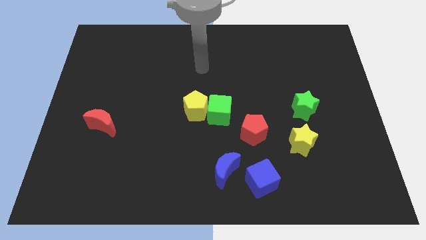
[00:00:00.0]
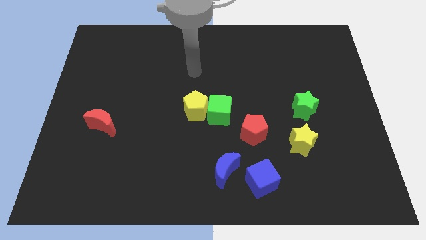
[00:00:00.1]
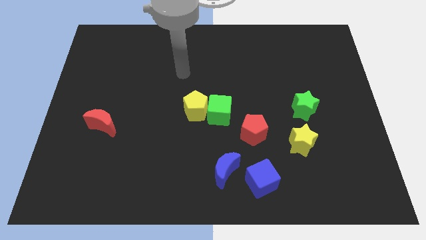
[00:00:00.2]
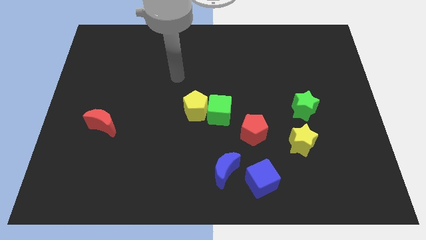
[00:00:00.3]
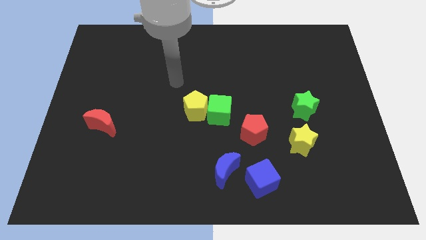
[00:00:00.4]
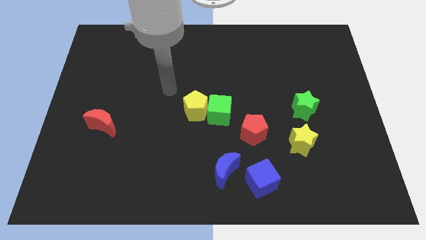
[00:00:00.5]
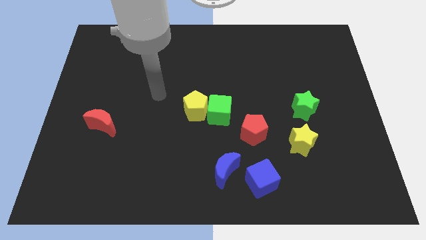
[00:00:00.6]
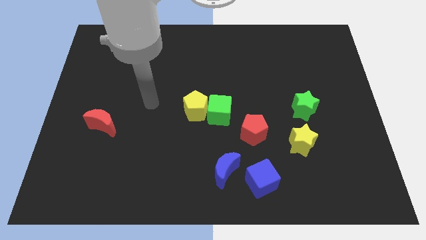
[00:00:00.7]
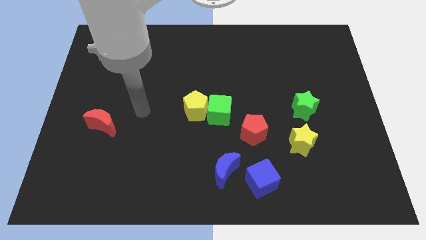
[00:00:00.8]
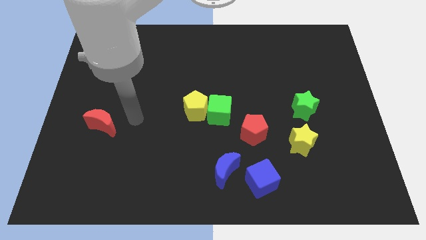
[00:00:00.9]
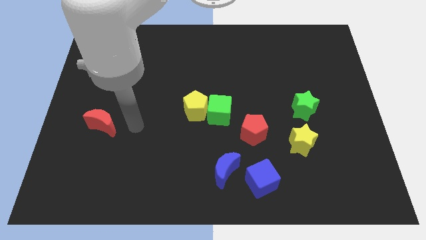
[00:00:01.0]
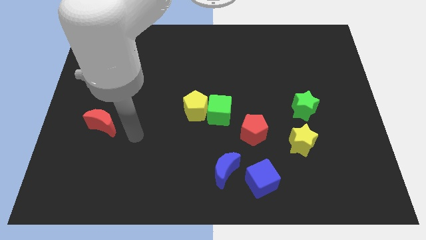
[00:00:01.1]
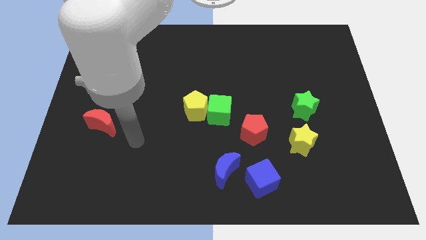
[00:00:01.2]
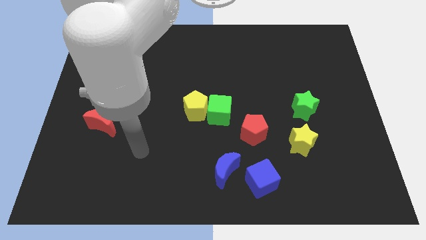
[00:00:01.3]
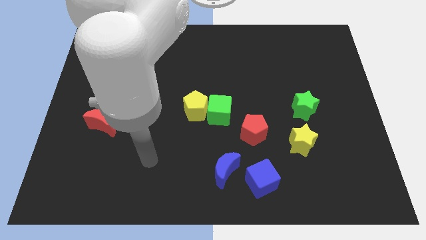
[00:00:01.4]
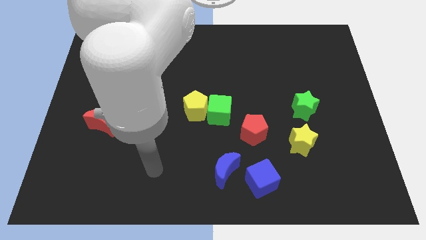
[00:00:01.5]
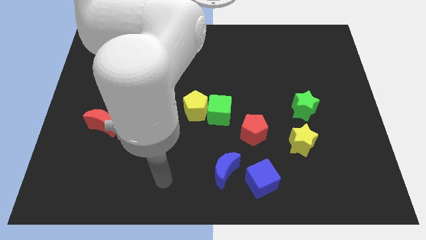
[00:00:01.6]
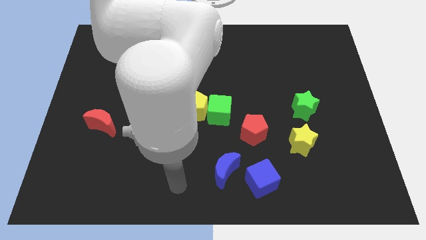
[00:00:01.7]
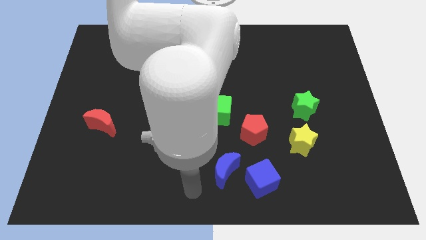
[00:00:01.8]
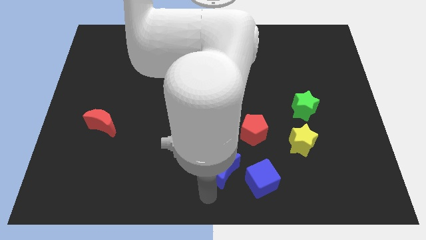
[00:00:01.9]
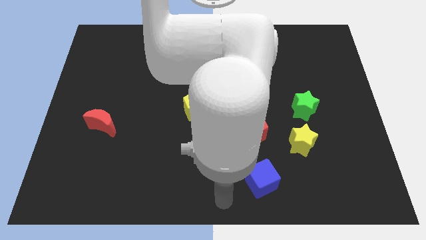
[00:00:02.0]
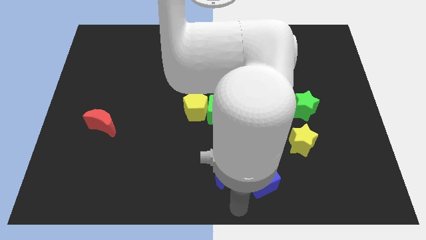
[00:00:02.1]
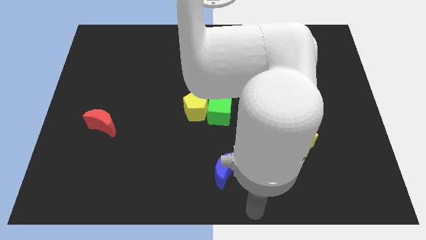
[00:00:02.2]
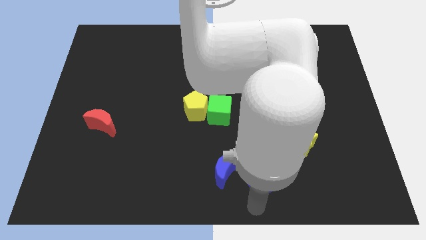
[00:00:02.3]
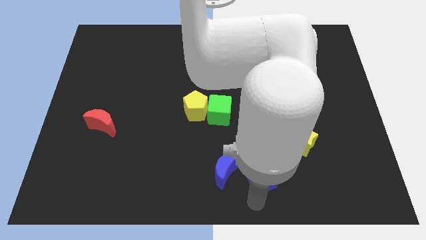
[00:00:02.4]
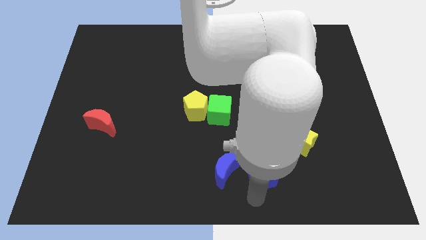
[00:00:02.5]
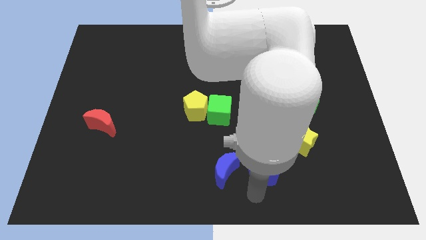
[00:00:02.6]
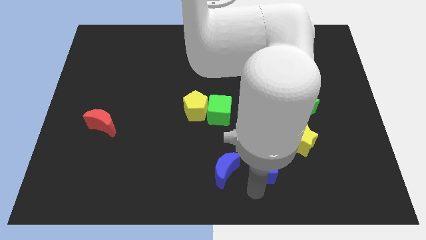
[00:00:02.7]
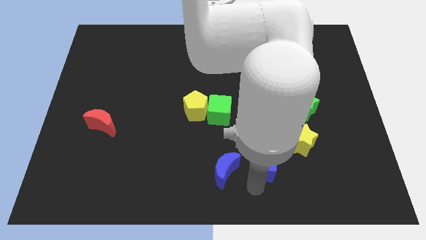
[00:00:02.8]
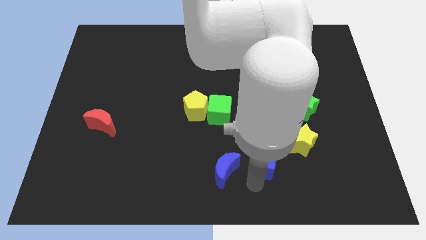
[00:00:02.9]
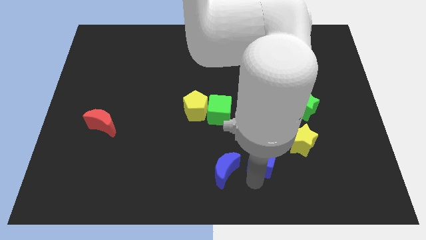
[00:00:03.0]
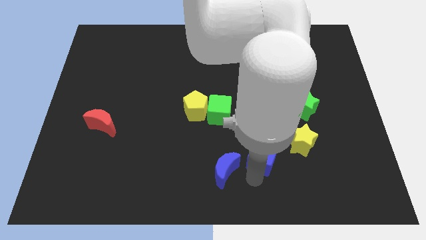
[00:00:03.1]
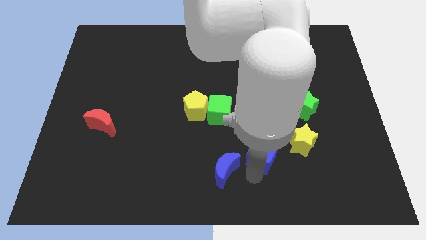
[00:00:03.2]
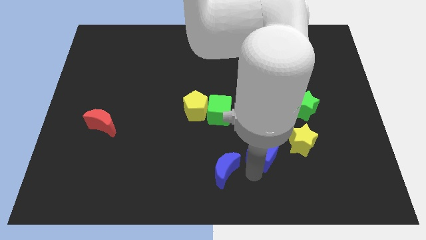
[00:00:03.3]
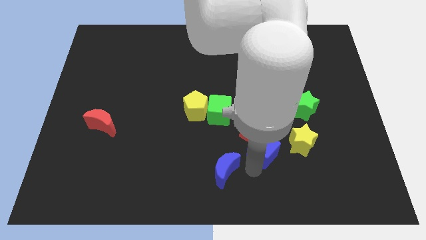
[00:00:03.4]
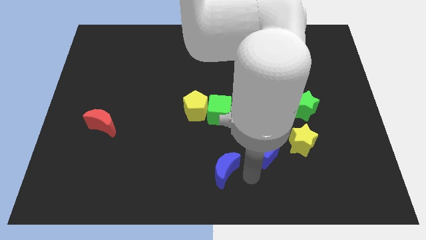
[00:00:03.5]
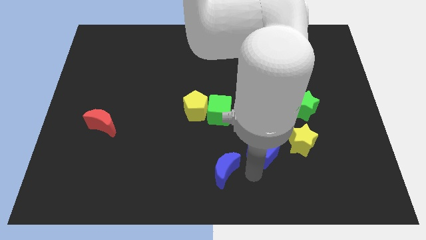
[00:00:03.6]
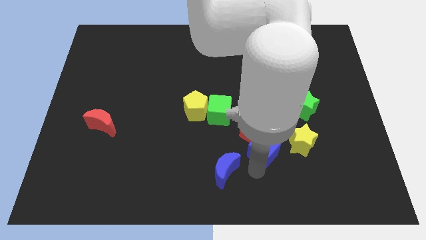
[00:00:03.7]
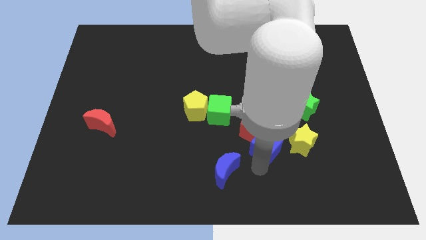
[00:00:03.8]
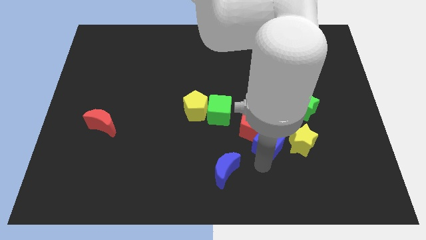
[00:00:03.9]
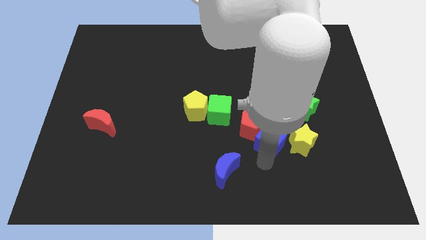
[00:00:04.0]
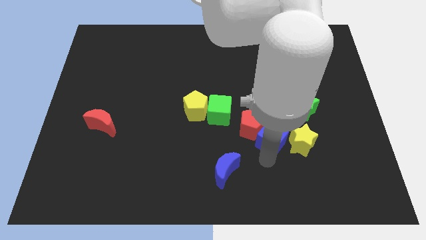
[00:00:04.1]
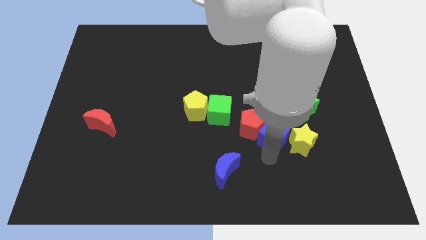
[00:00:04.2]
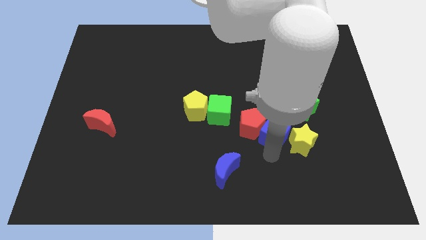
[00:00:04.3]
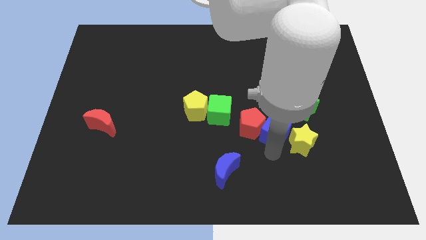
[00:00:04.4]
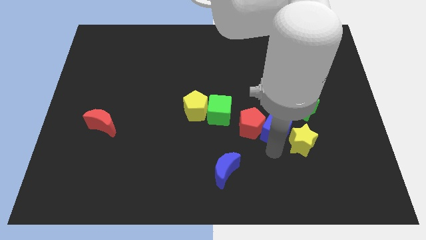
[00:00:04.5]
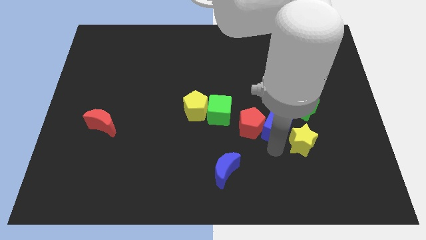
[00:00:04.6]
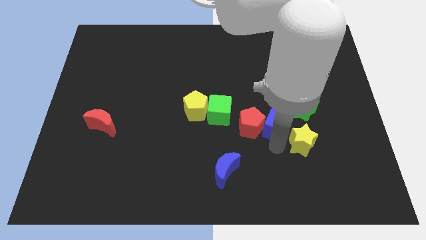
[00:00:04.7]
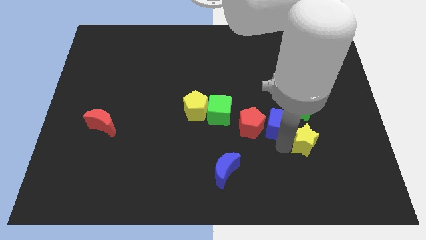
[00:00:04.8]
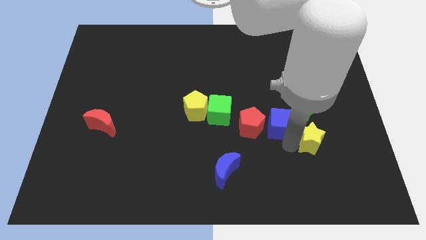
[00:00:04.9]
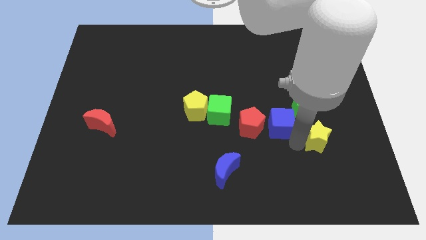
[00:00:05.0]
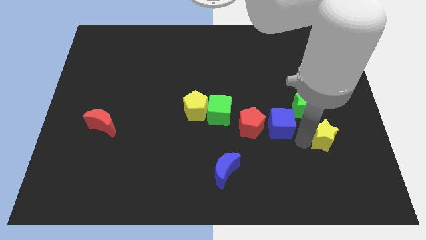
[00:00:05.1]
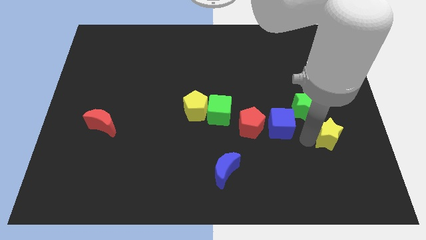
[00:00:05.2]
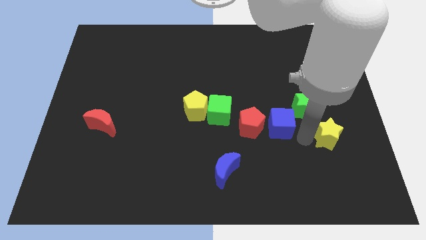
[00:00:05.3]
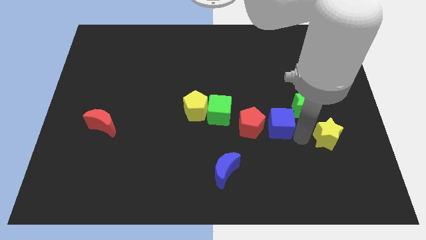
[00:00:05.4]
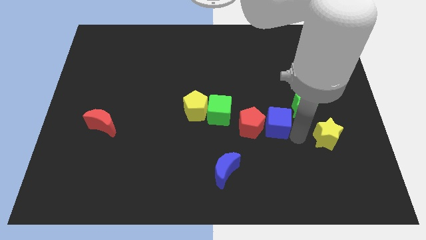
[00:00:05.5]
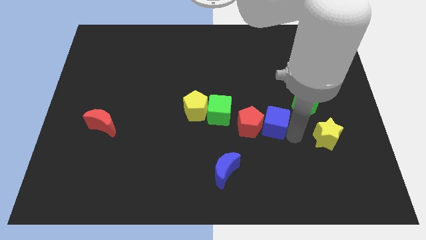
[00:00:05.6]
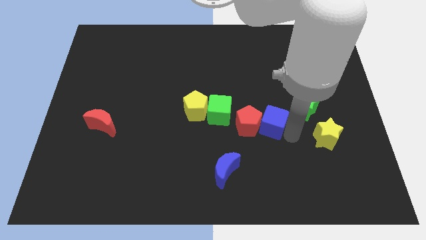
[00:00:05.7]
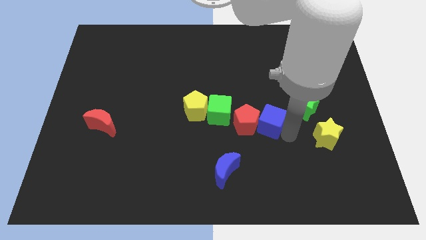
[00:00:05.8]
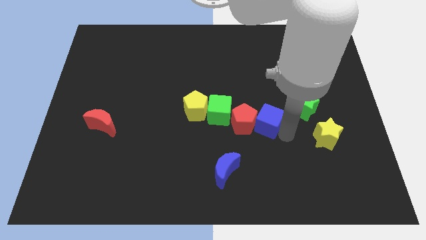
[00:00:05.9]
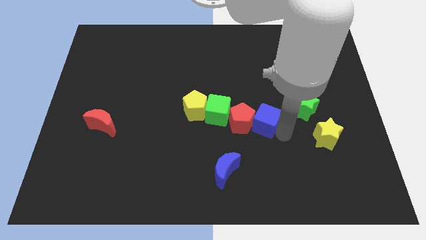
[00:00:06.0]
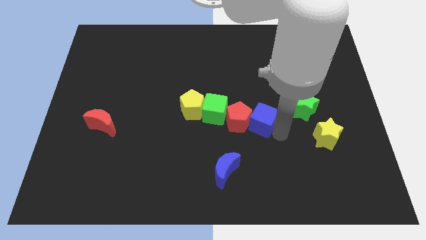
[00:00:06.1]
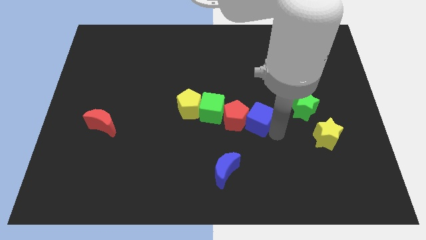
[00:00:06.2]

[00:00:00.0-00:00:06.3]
slide the blue cube to the middle of the board
